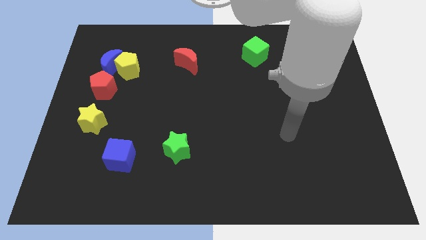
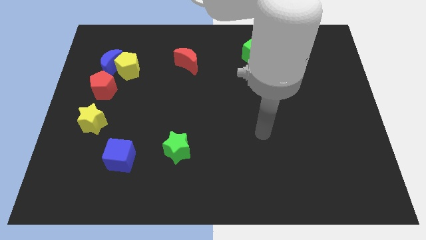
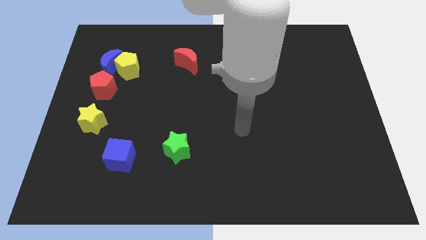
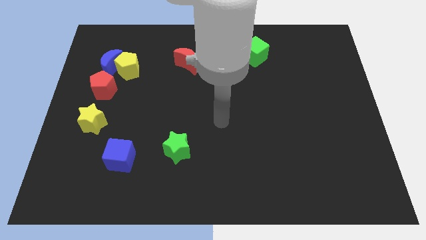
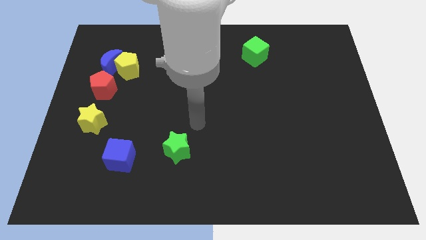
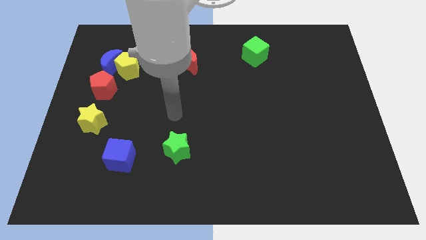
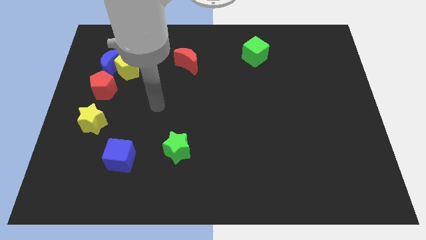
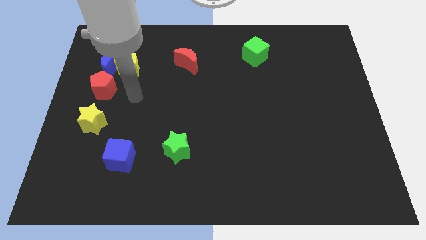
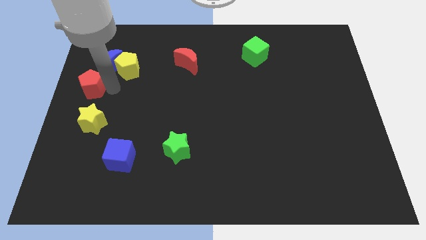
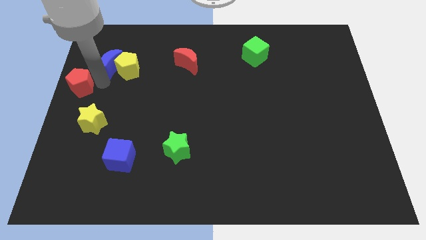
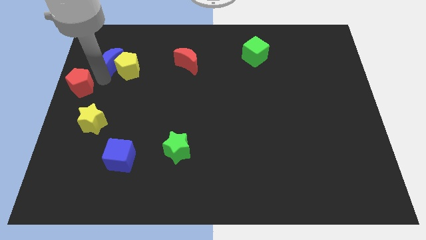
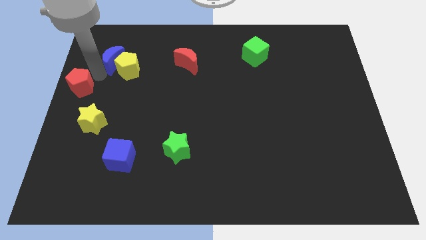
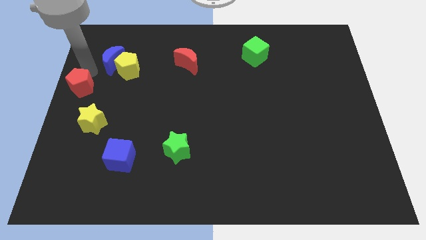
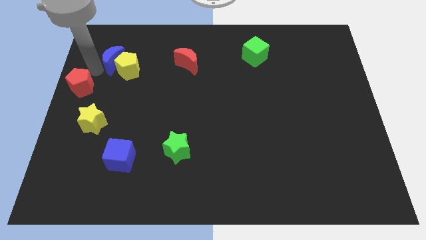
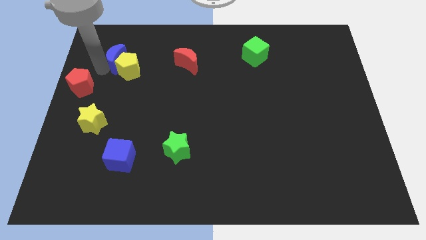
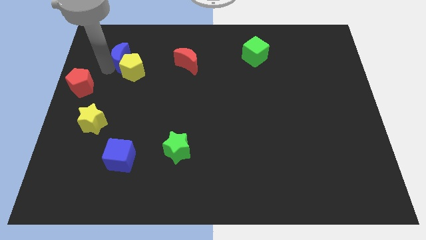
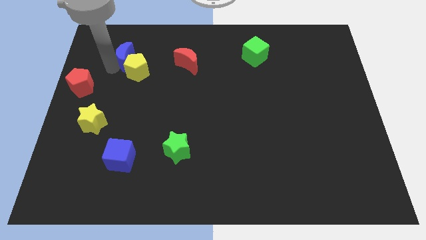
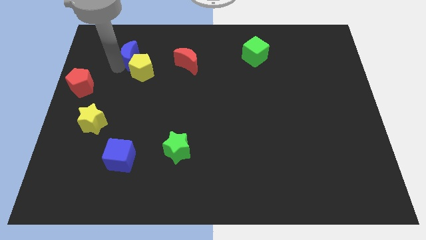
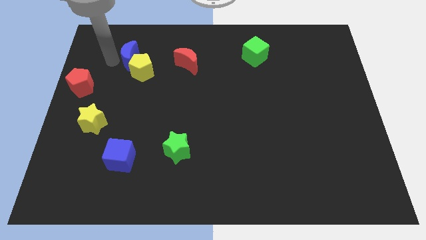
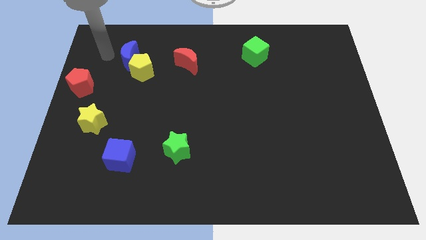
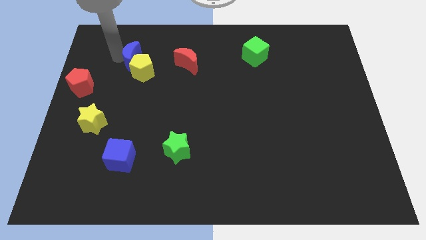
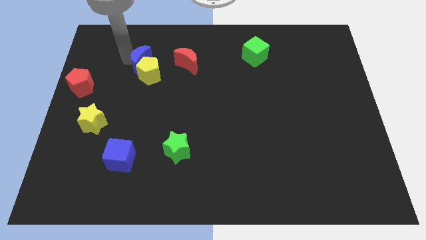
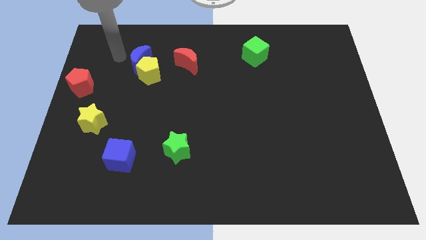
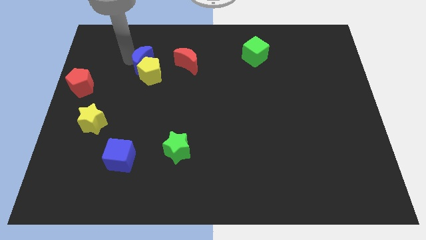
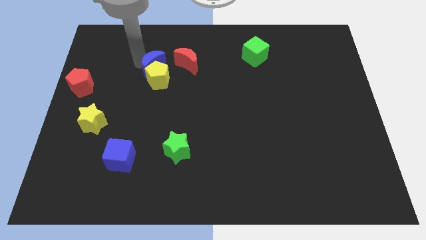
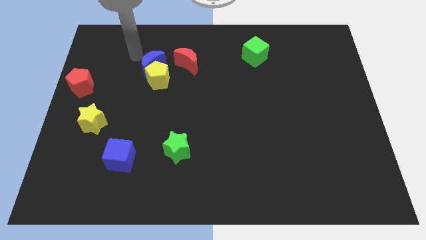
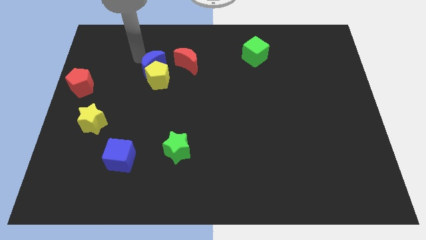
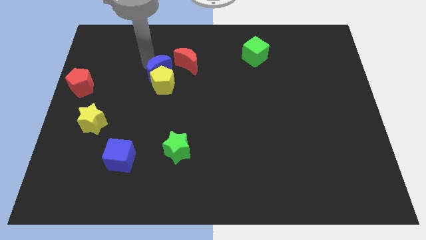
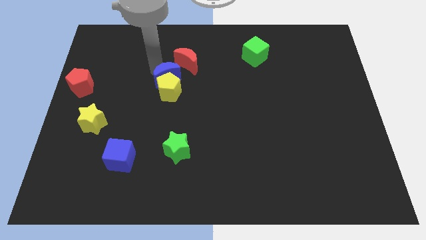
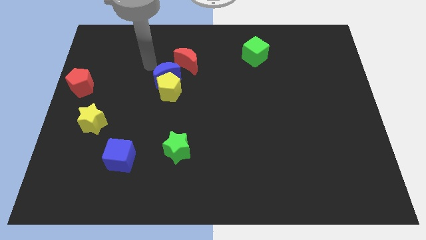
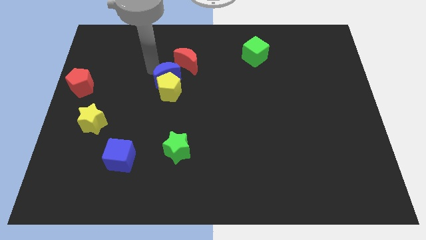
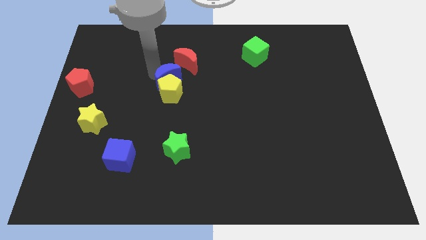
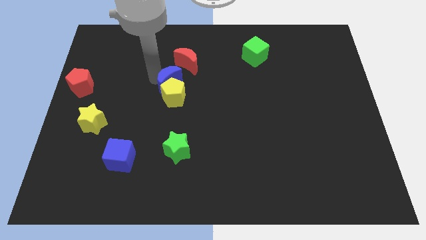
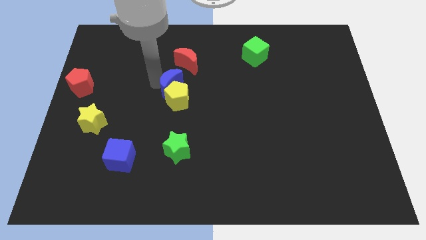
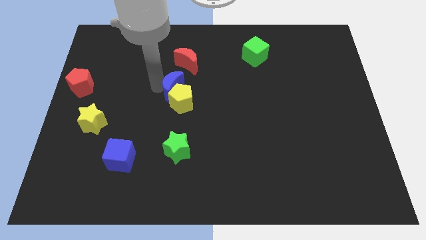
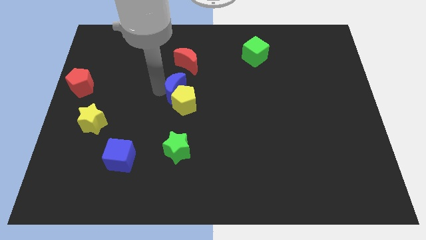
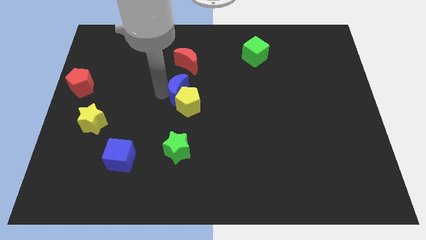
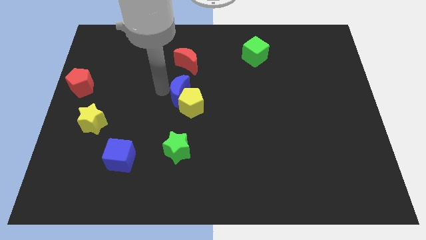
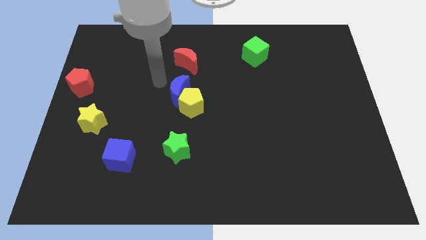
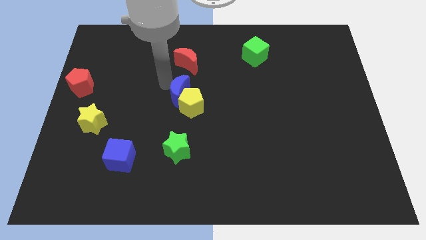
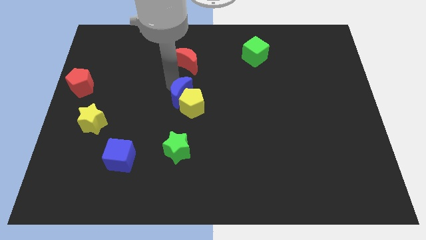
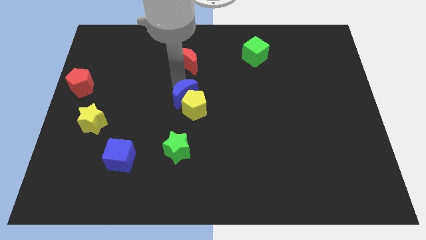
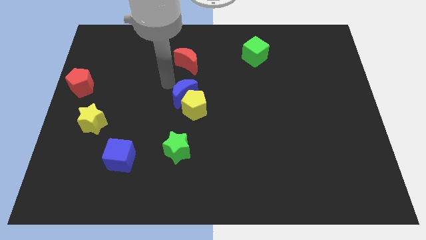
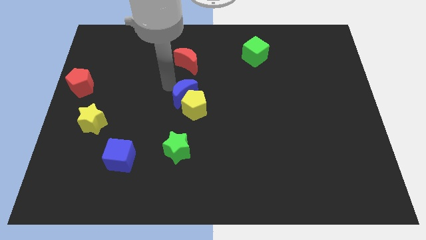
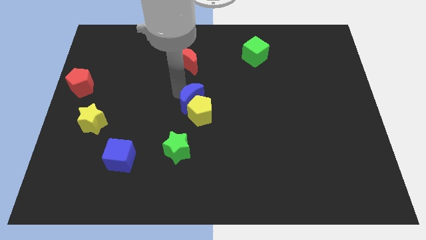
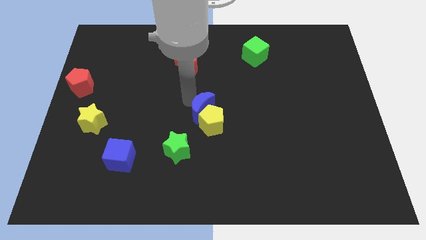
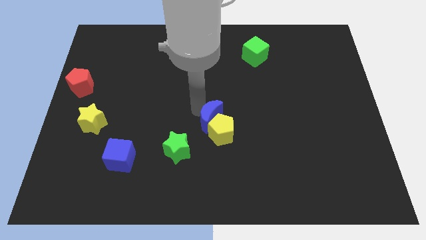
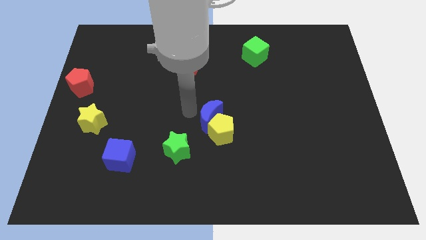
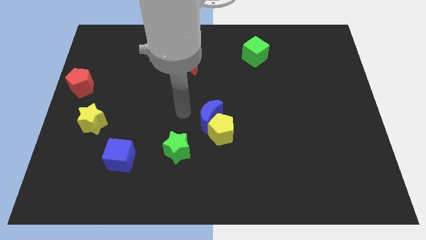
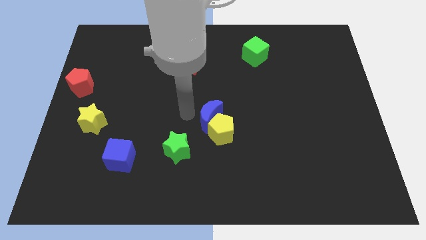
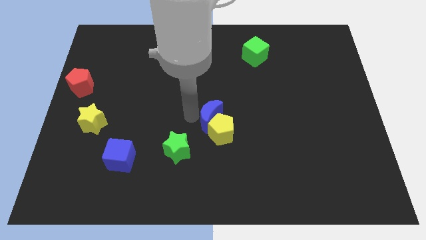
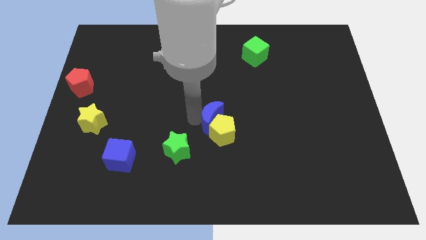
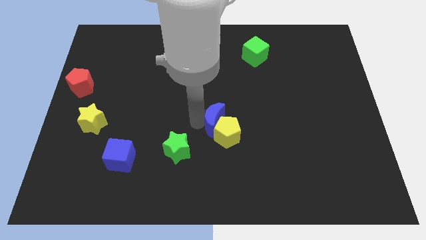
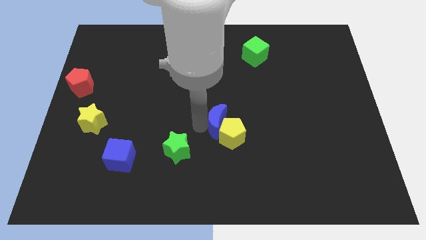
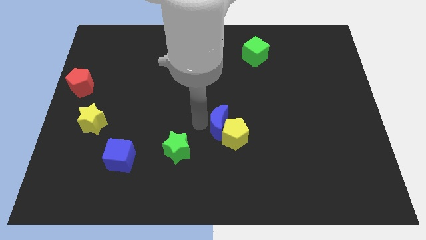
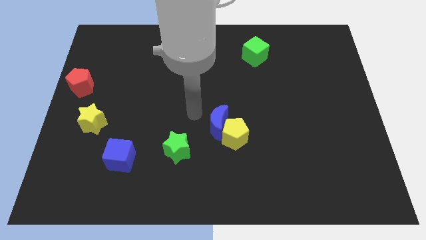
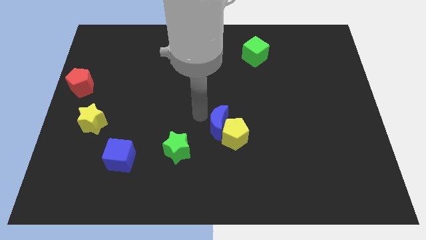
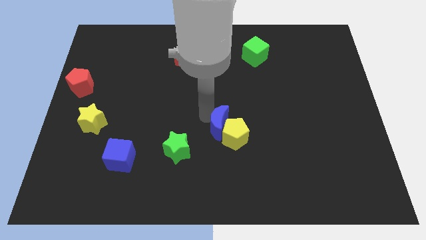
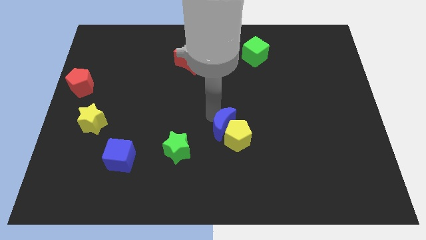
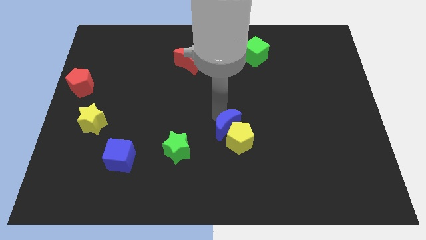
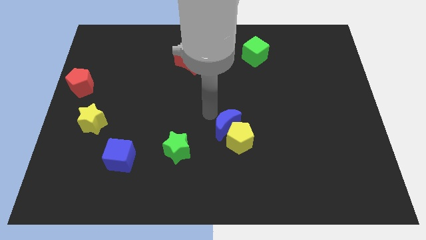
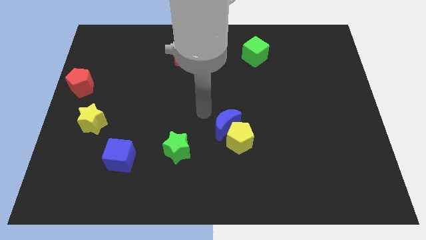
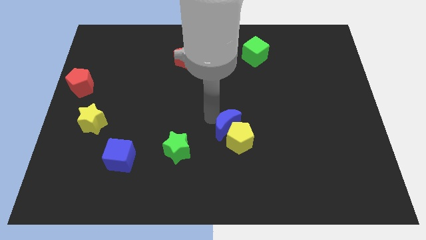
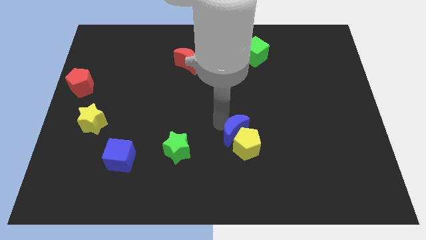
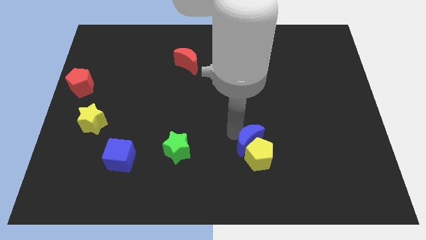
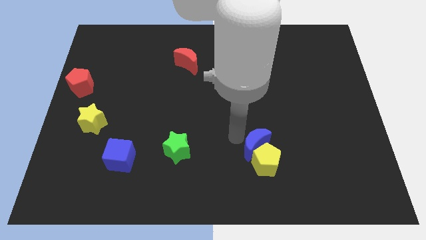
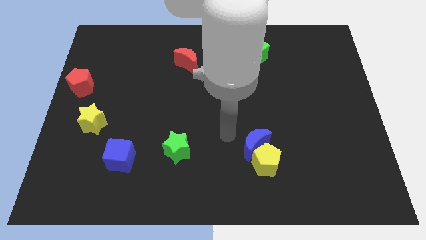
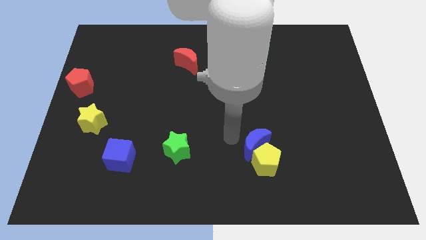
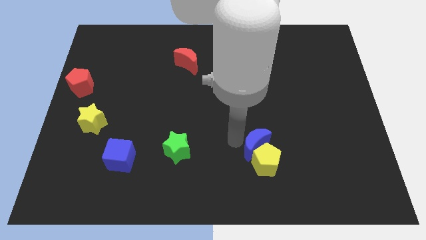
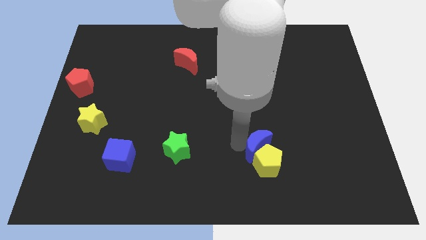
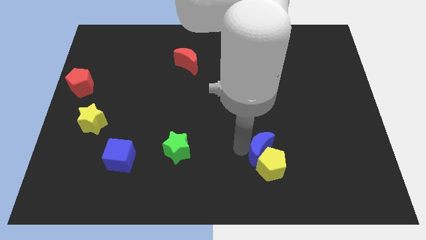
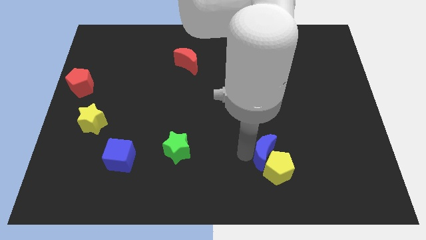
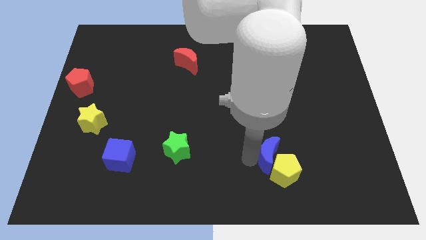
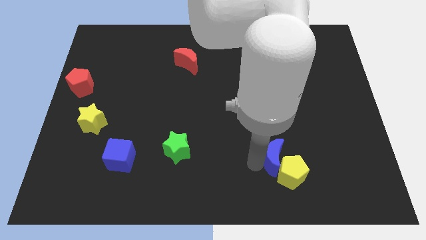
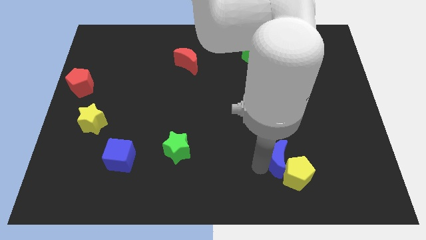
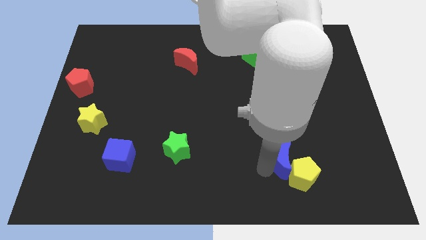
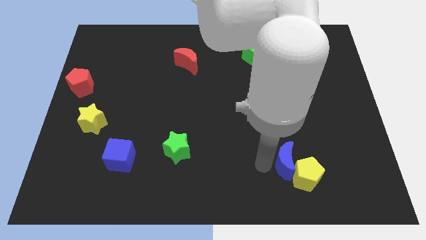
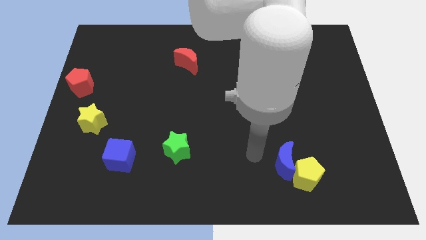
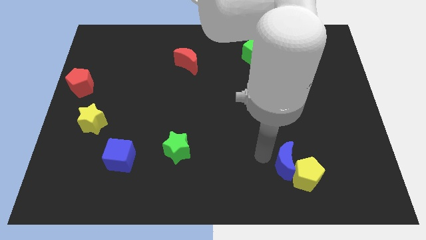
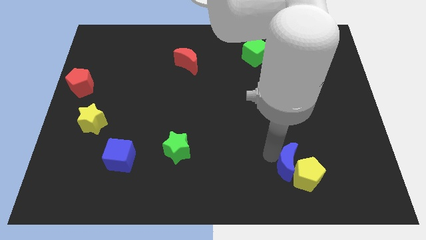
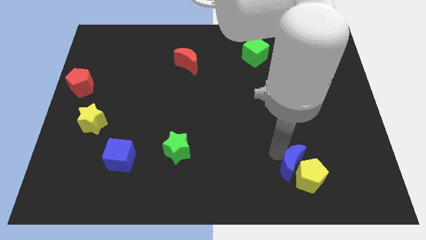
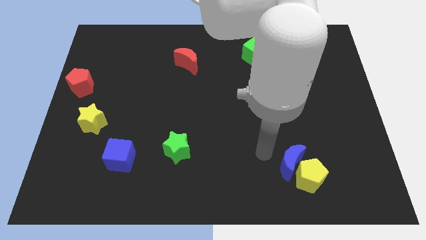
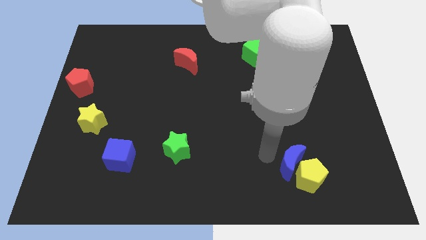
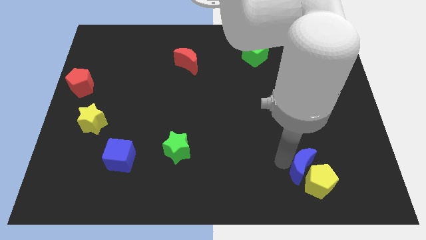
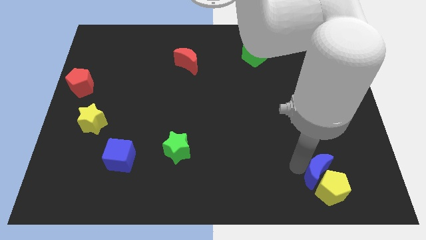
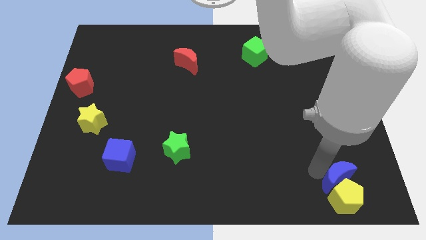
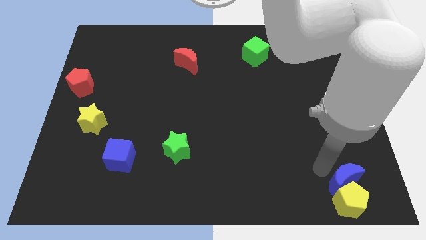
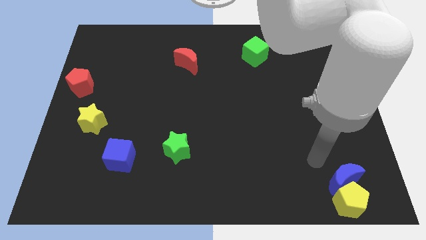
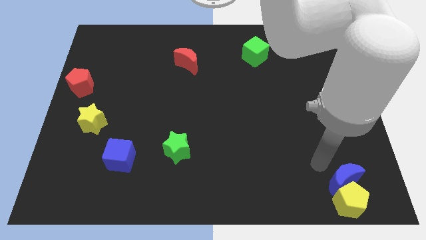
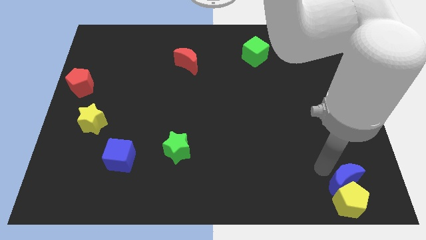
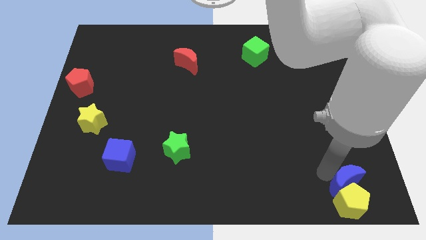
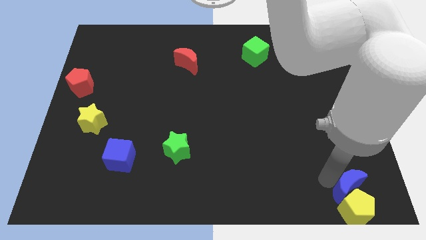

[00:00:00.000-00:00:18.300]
move the blue moon to the bottom right of the board
